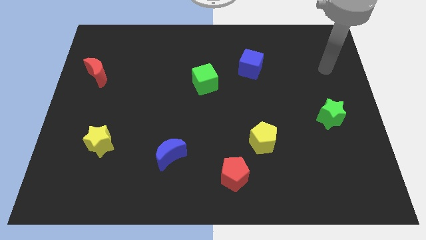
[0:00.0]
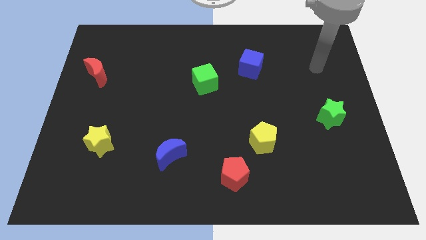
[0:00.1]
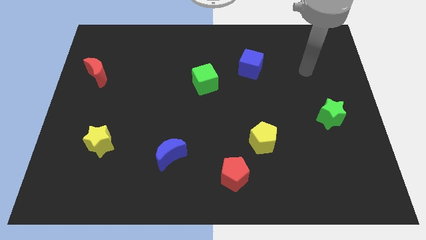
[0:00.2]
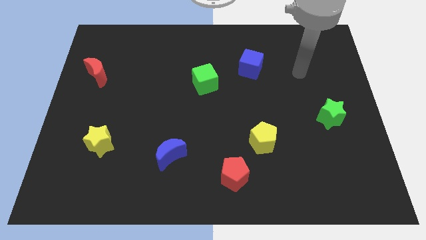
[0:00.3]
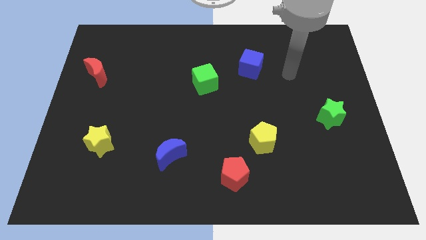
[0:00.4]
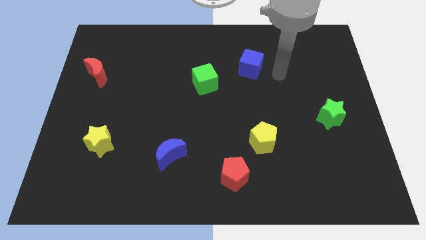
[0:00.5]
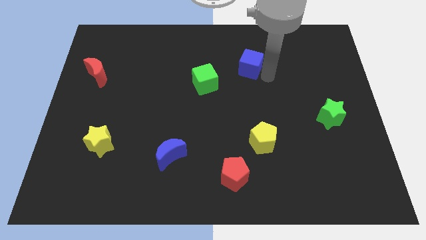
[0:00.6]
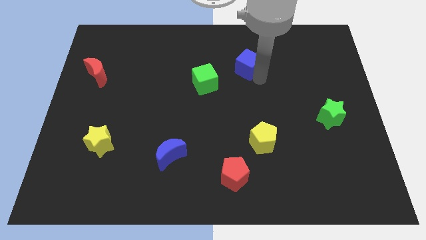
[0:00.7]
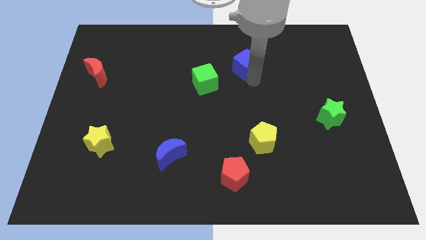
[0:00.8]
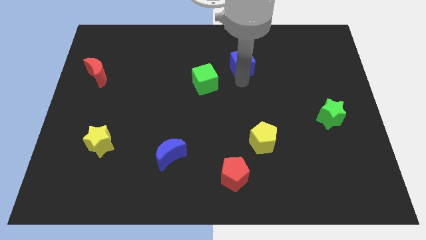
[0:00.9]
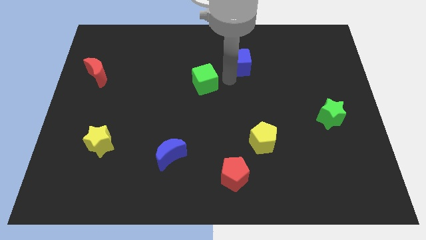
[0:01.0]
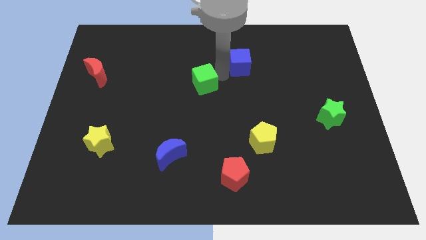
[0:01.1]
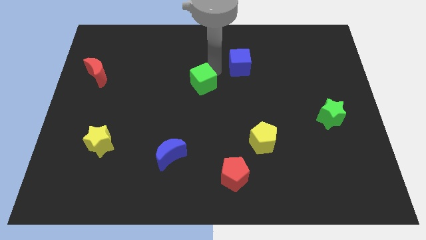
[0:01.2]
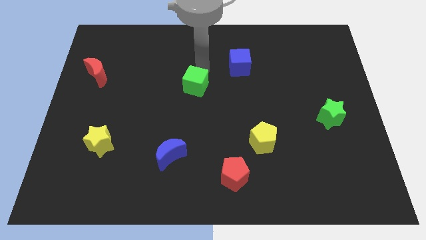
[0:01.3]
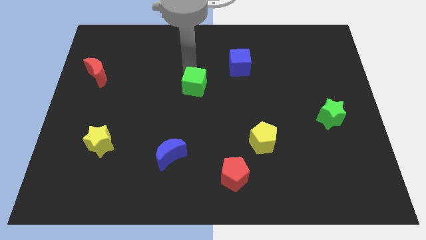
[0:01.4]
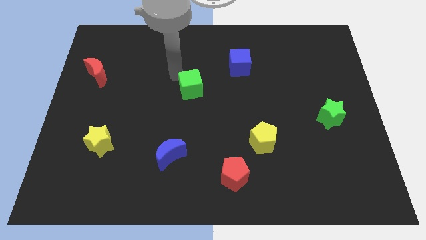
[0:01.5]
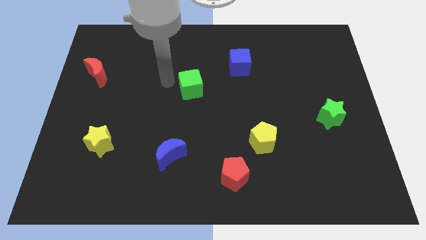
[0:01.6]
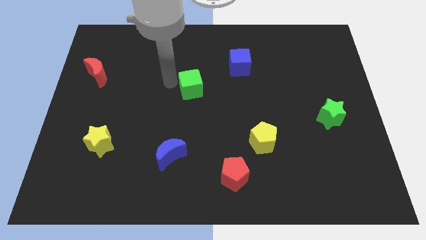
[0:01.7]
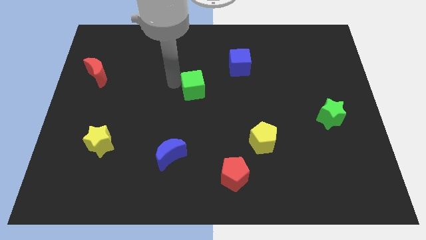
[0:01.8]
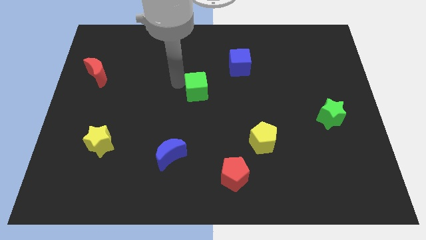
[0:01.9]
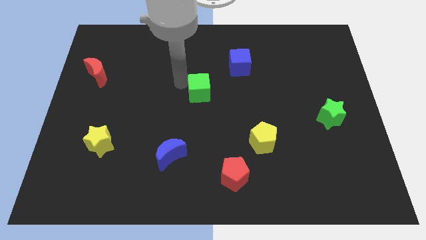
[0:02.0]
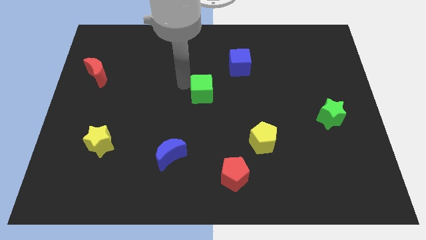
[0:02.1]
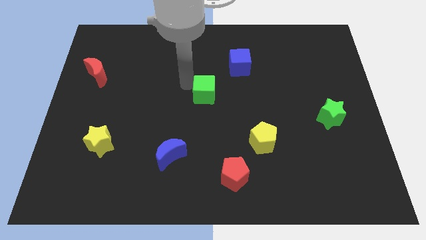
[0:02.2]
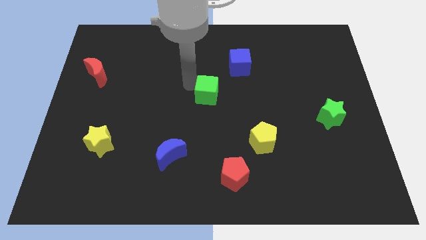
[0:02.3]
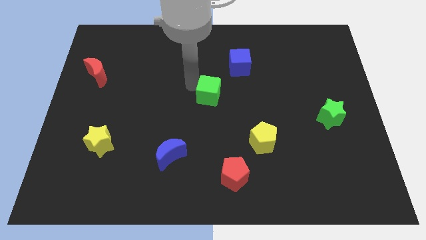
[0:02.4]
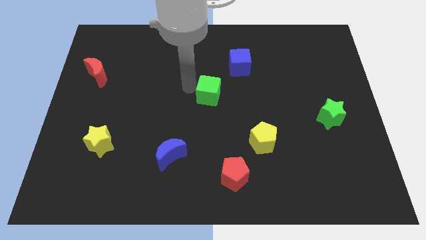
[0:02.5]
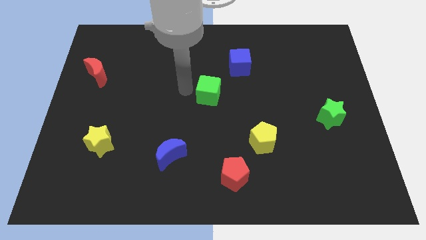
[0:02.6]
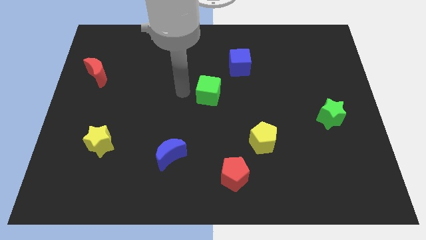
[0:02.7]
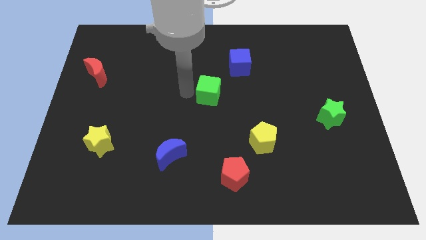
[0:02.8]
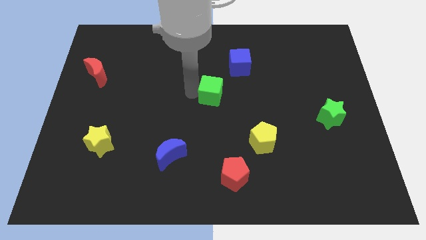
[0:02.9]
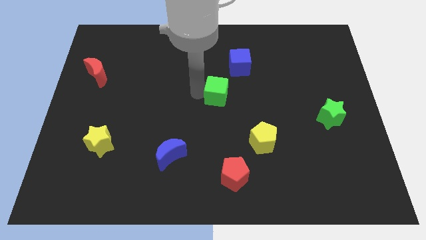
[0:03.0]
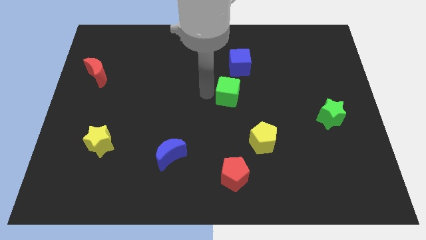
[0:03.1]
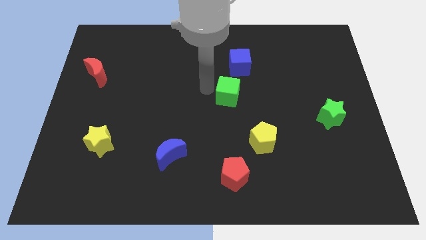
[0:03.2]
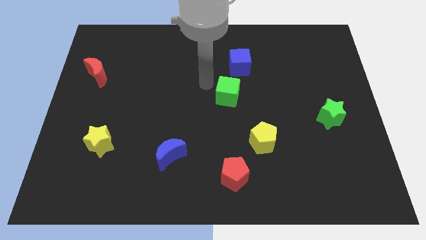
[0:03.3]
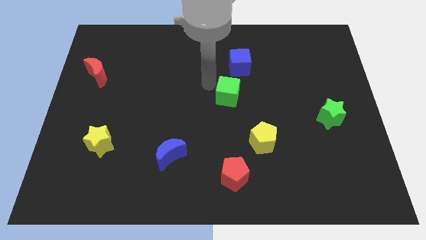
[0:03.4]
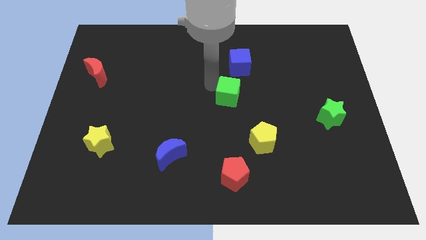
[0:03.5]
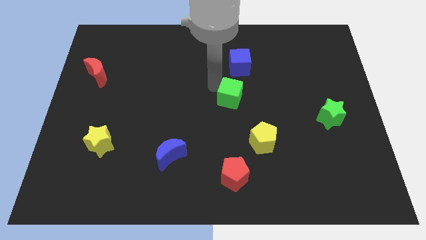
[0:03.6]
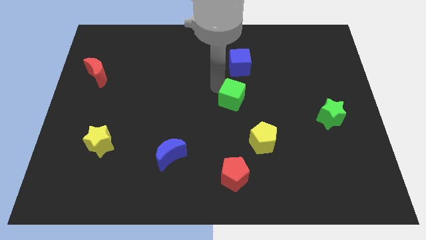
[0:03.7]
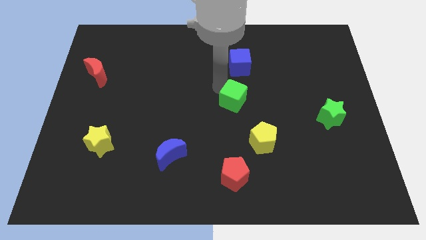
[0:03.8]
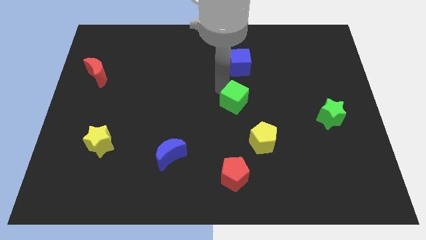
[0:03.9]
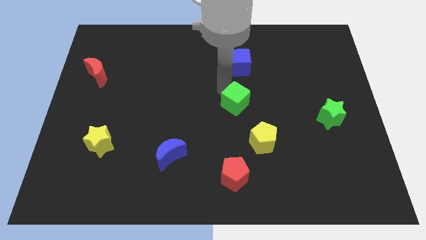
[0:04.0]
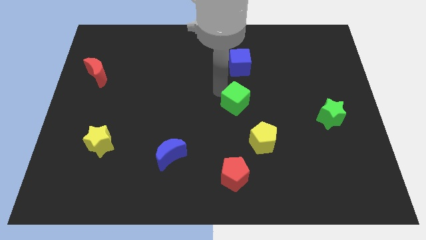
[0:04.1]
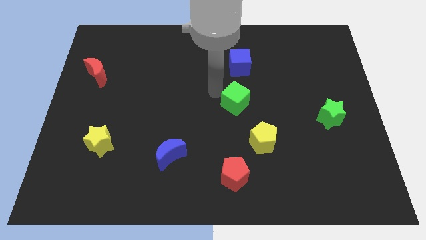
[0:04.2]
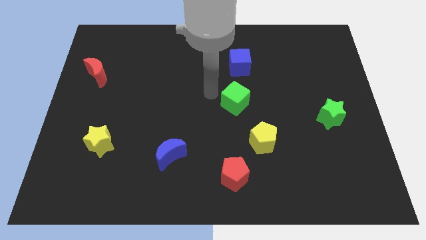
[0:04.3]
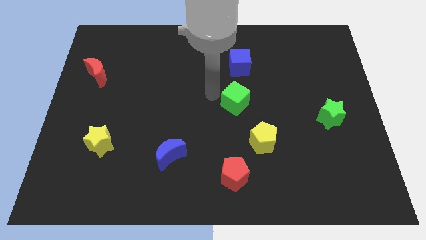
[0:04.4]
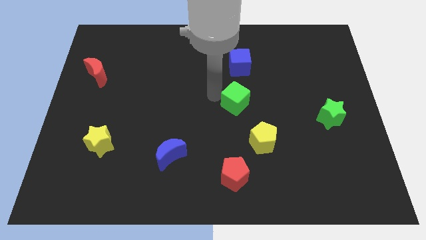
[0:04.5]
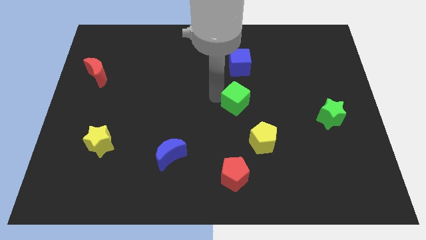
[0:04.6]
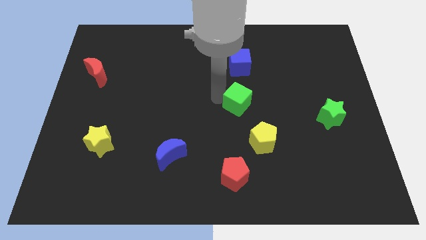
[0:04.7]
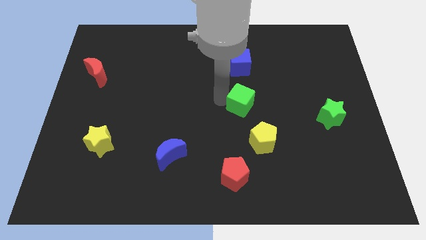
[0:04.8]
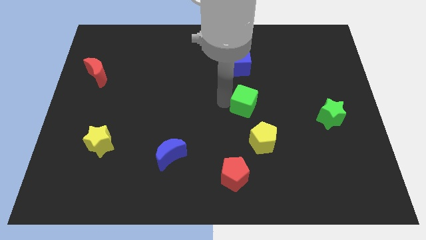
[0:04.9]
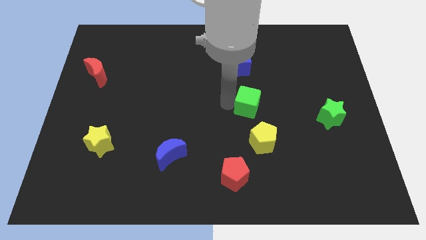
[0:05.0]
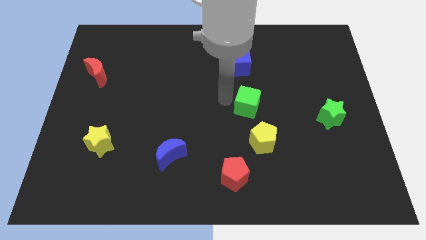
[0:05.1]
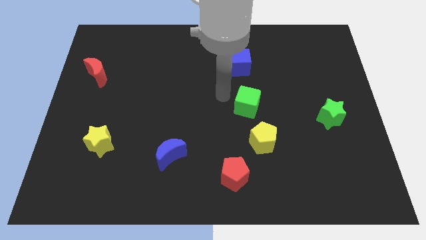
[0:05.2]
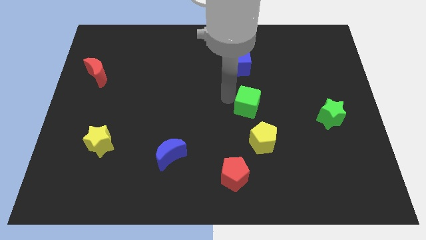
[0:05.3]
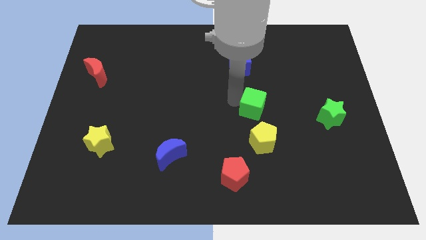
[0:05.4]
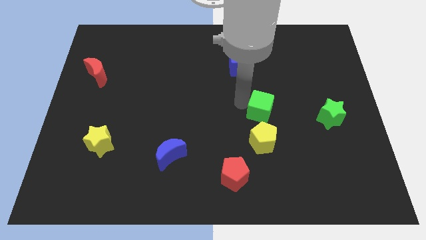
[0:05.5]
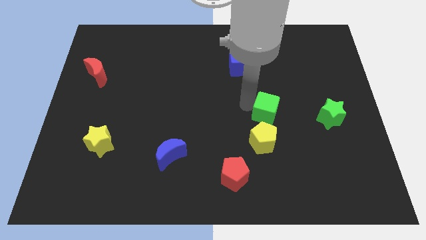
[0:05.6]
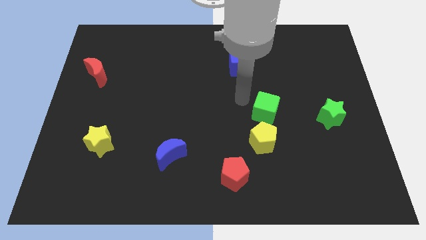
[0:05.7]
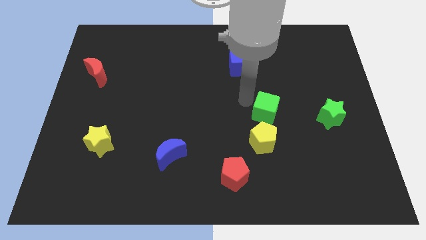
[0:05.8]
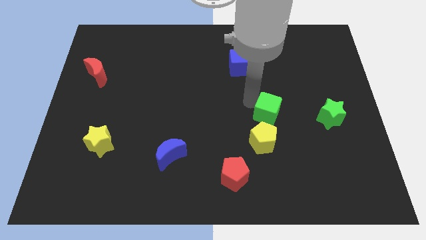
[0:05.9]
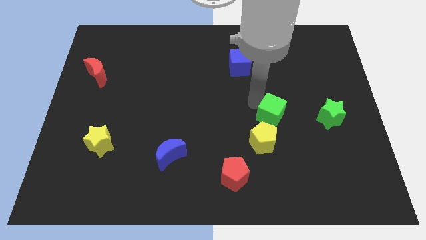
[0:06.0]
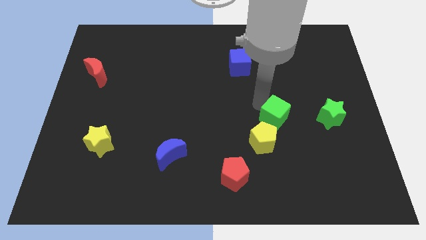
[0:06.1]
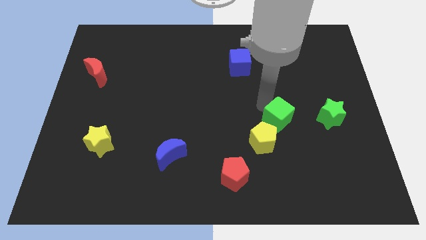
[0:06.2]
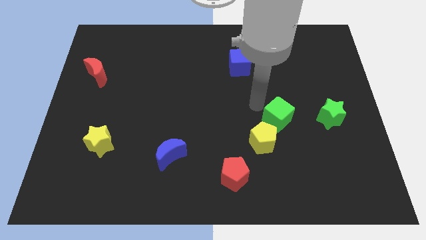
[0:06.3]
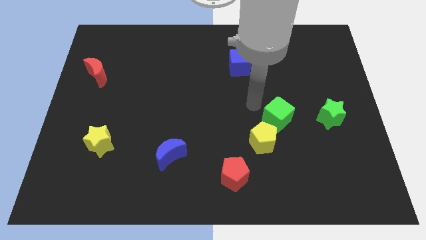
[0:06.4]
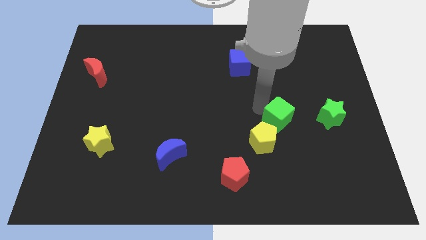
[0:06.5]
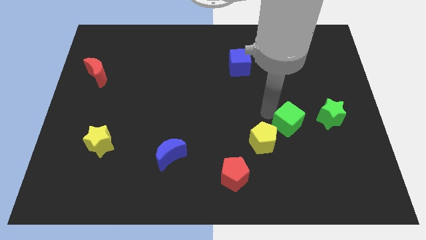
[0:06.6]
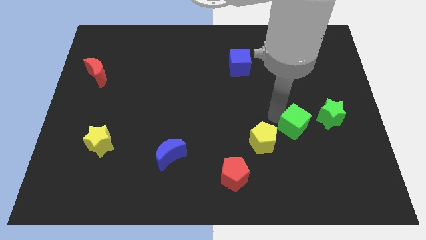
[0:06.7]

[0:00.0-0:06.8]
move the green cube diagonally down and to the left of the green star

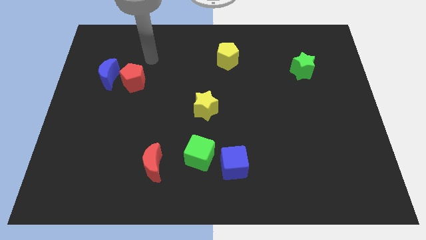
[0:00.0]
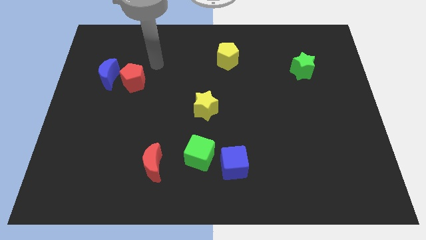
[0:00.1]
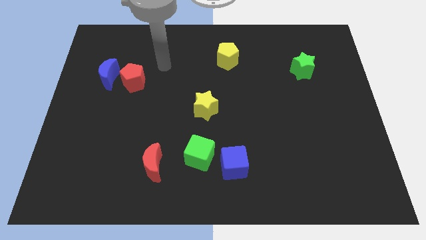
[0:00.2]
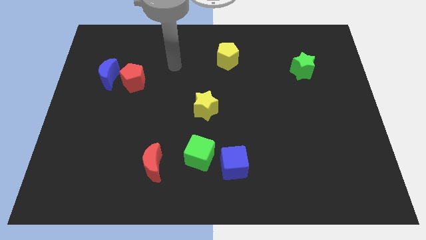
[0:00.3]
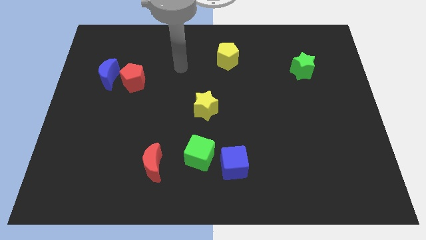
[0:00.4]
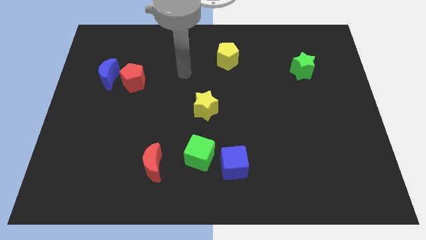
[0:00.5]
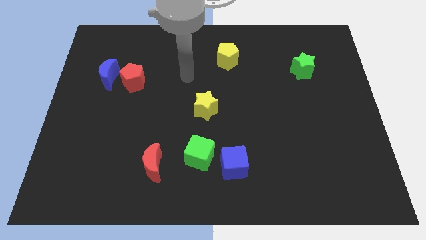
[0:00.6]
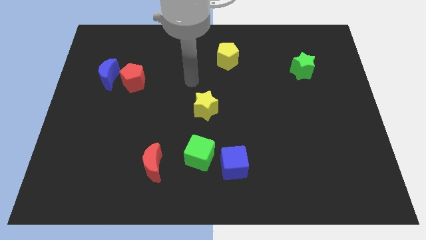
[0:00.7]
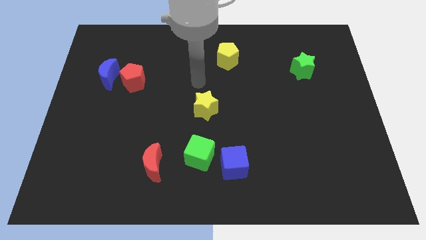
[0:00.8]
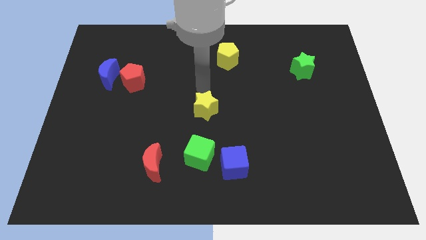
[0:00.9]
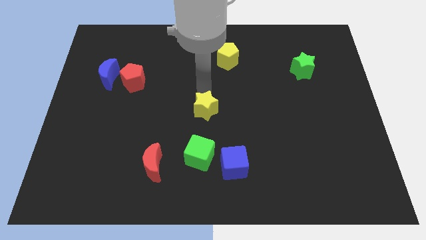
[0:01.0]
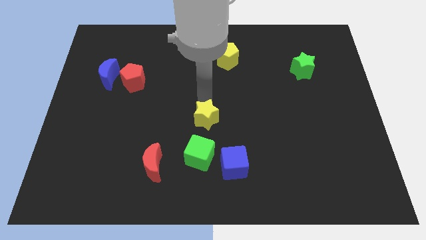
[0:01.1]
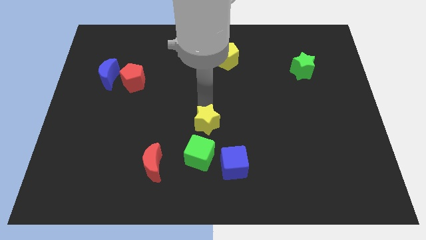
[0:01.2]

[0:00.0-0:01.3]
slide the yellow star to the top left of the blue cube
